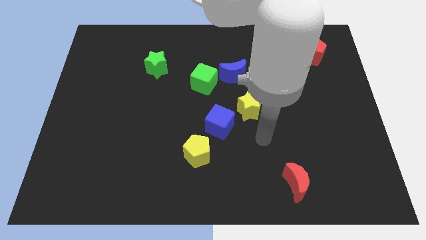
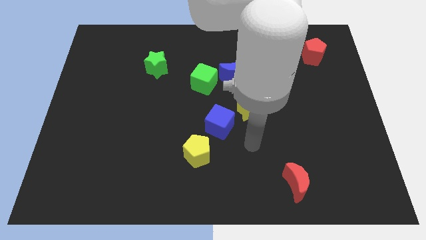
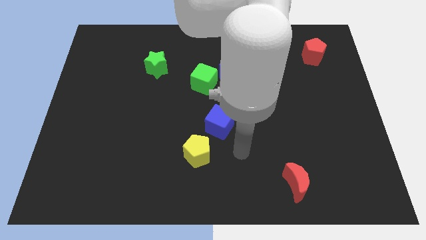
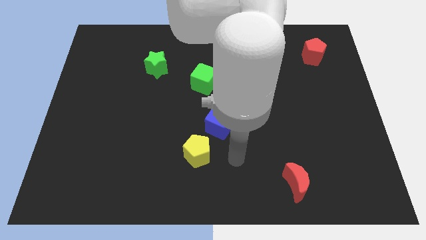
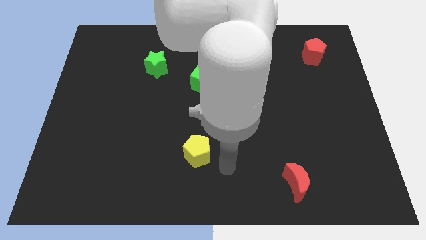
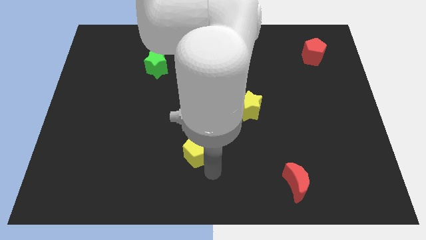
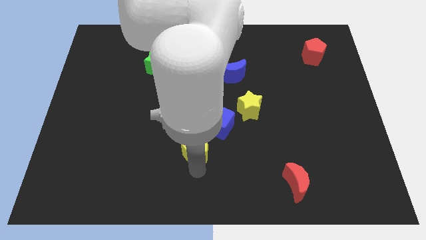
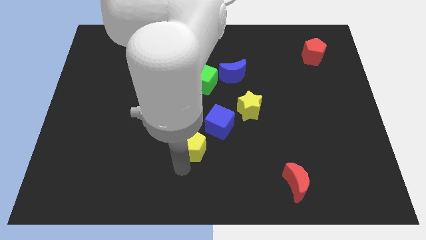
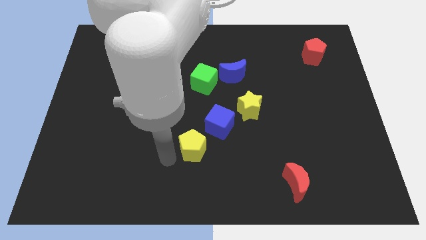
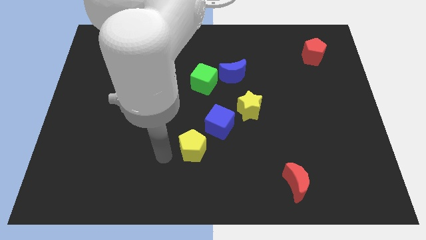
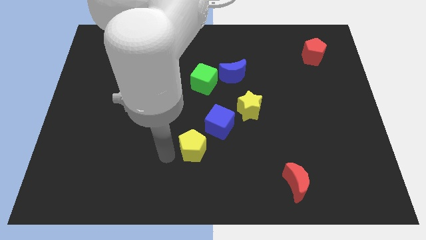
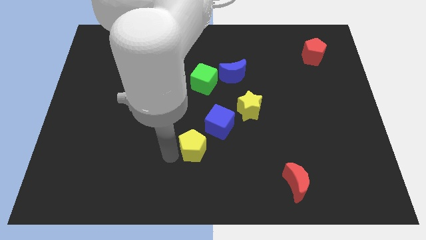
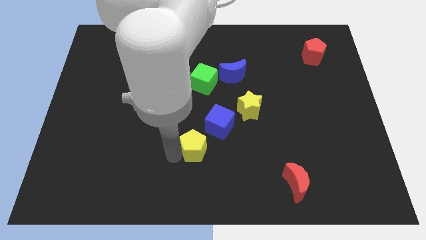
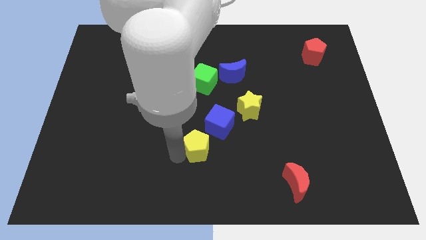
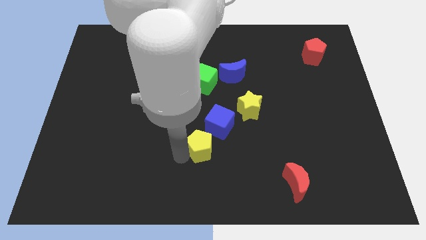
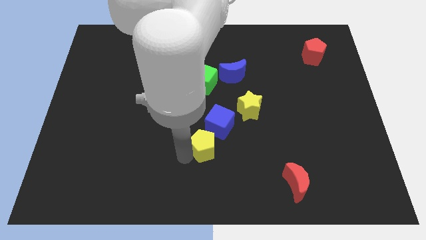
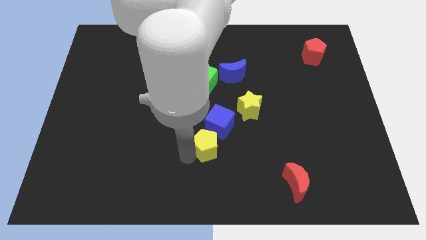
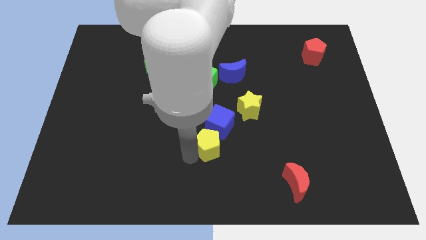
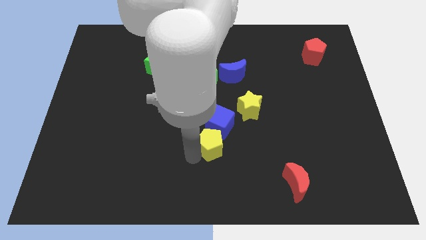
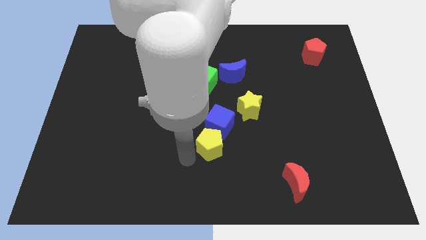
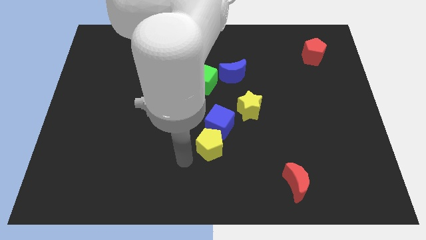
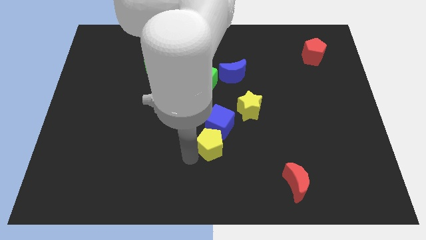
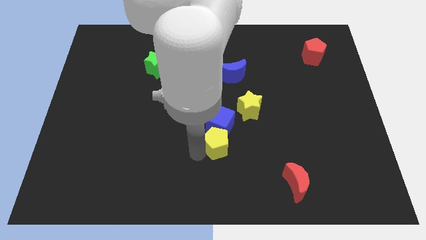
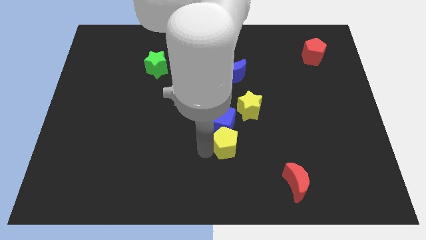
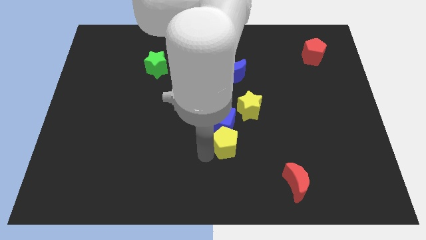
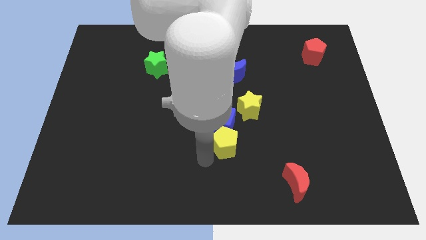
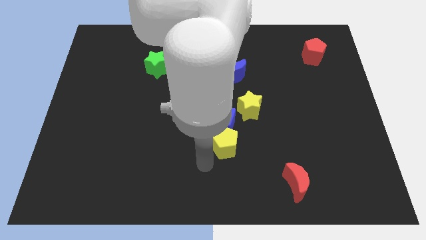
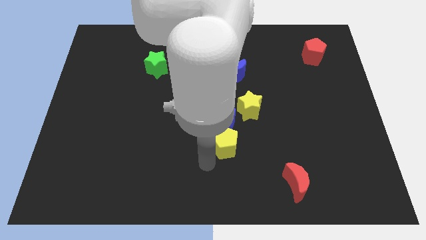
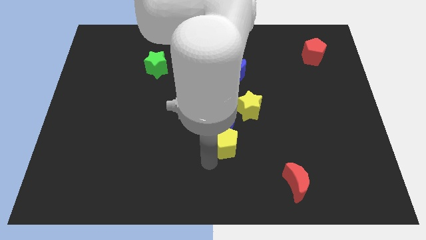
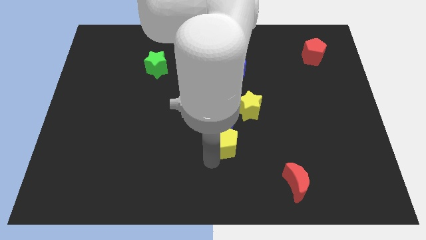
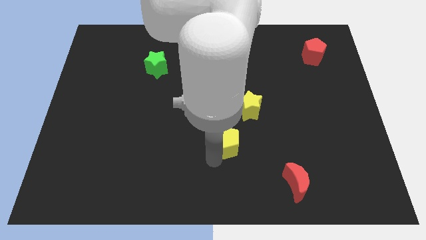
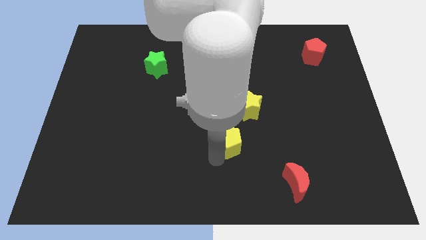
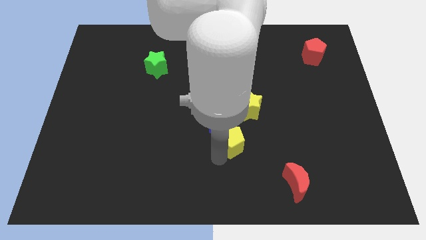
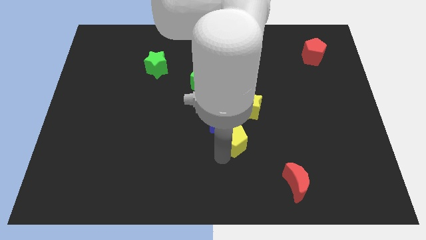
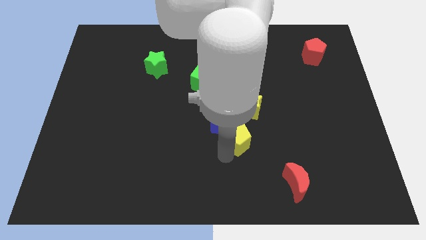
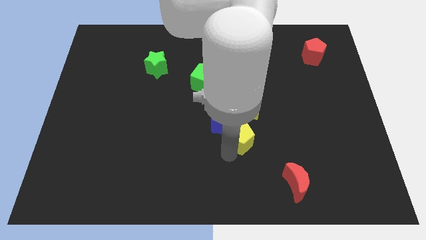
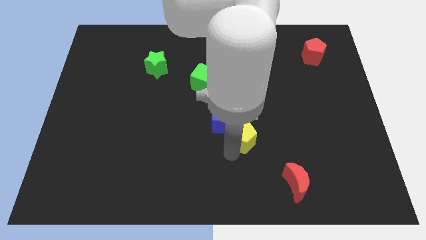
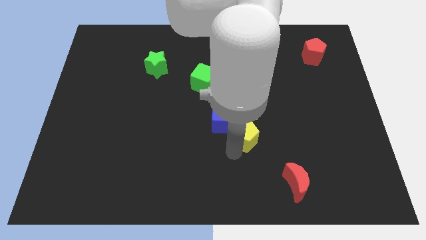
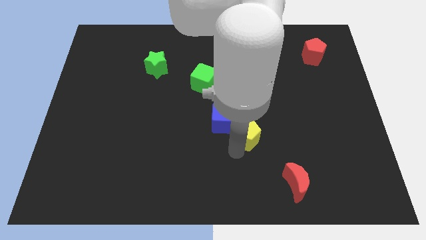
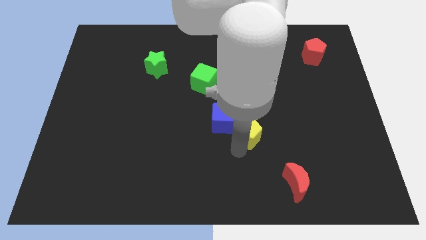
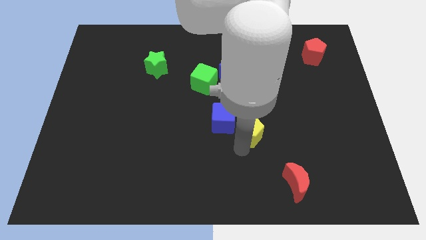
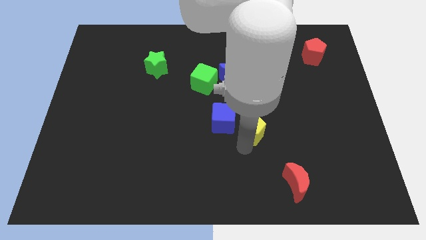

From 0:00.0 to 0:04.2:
put the yellow pentagon towards the yellow star

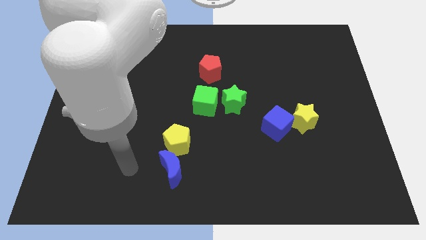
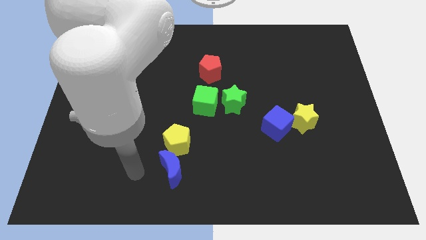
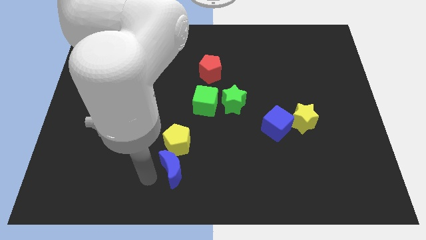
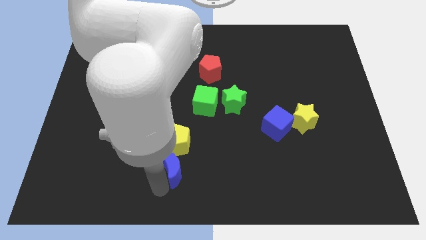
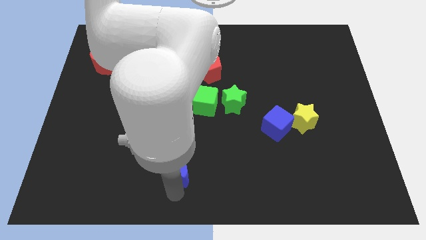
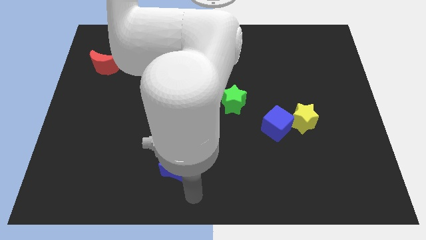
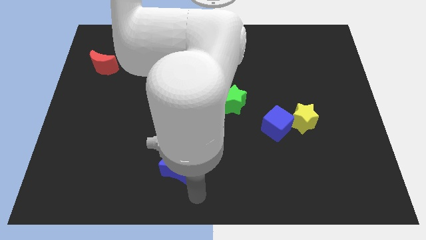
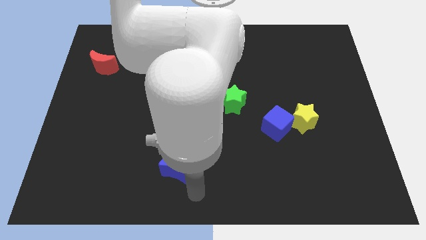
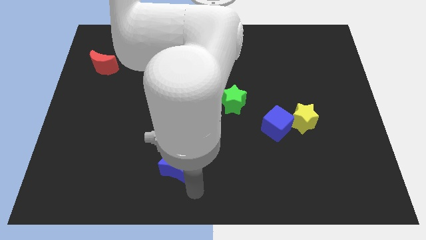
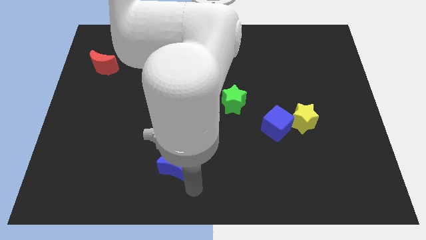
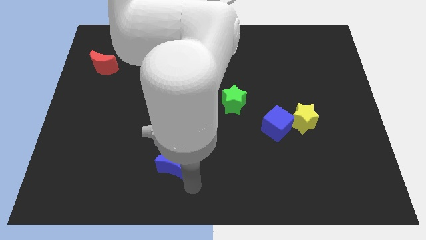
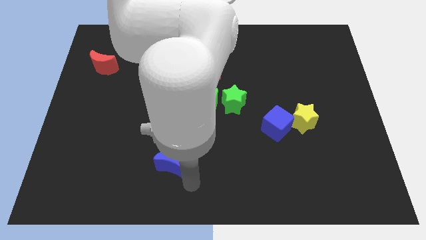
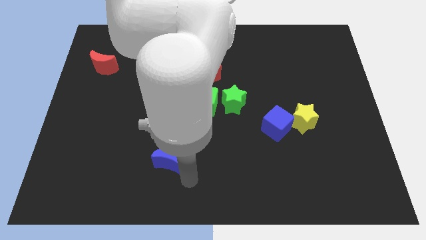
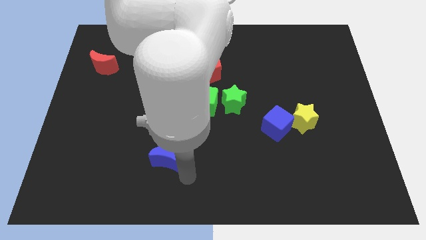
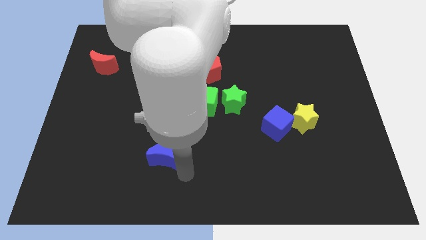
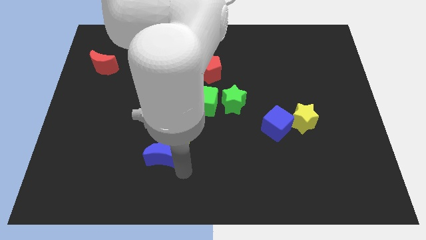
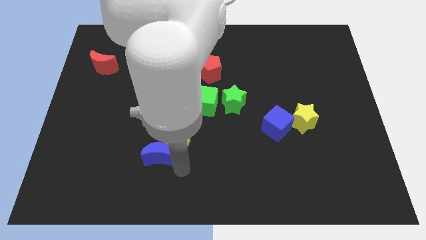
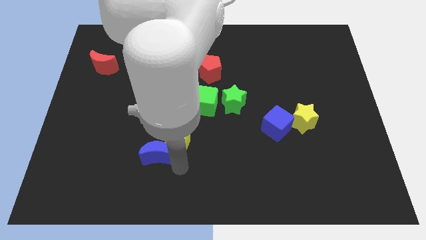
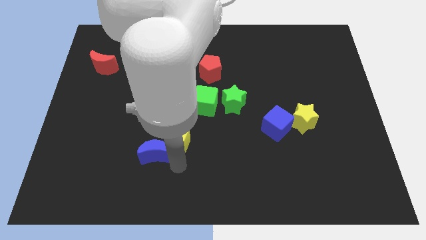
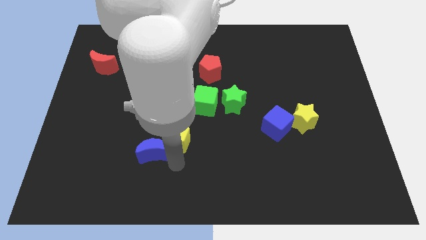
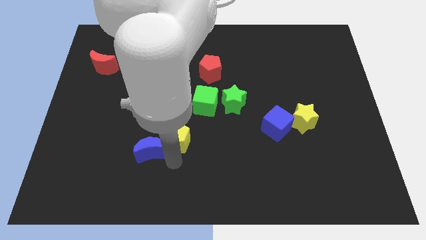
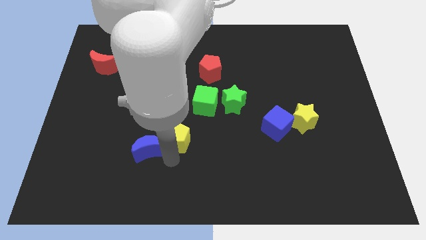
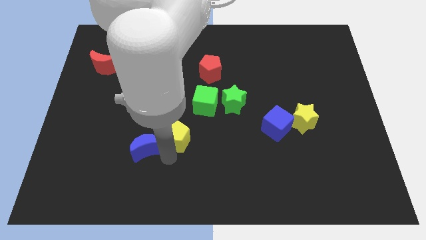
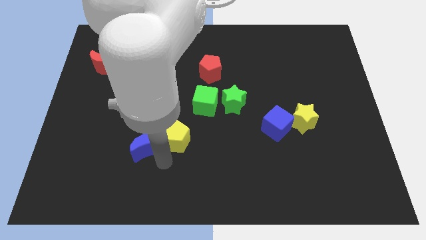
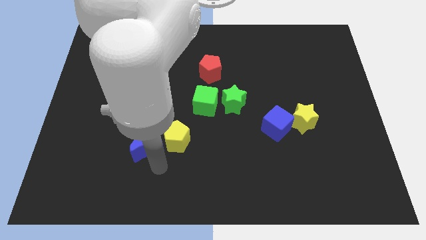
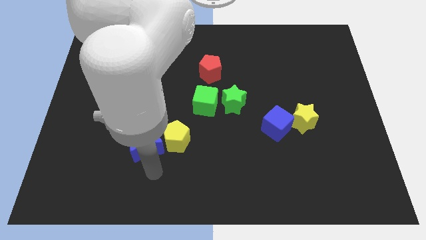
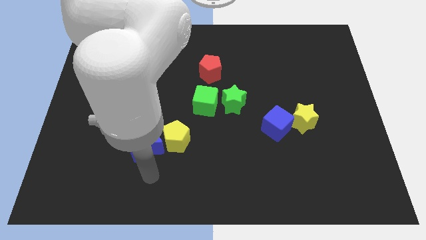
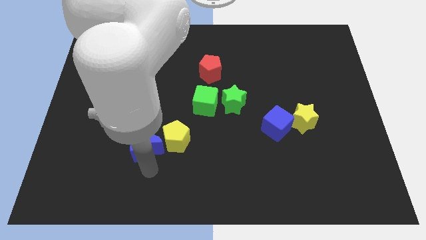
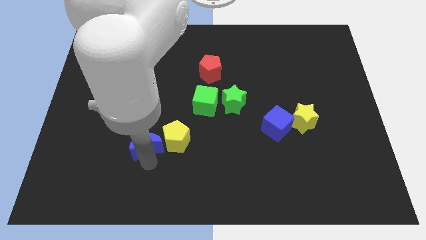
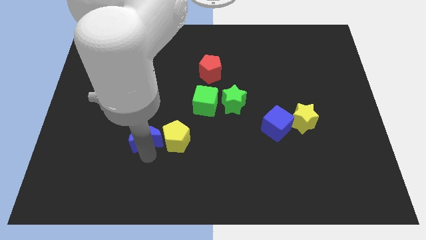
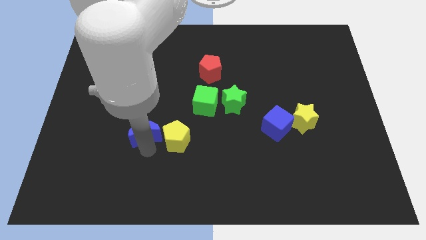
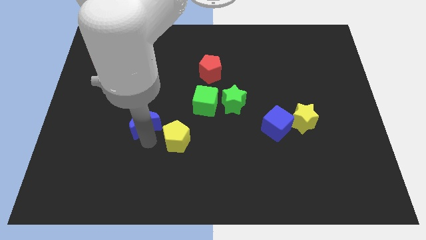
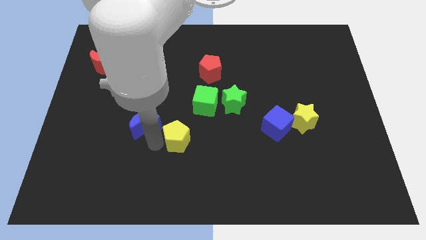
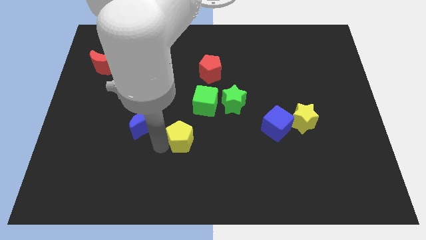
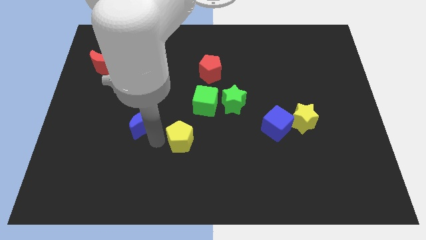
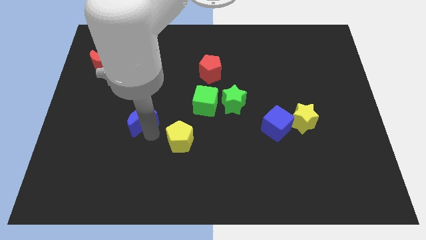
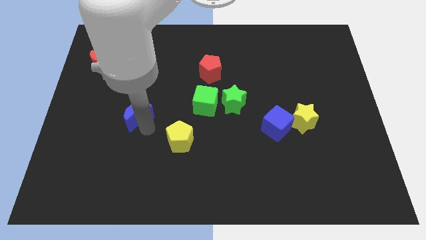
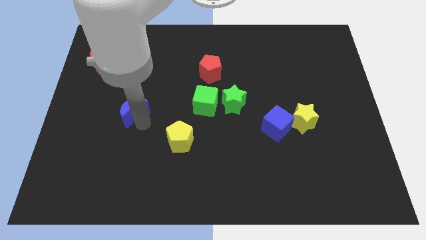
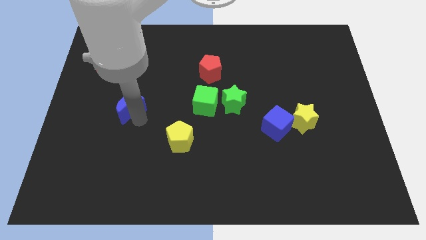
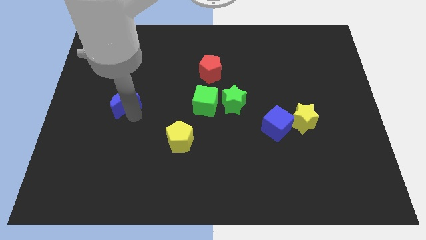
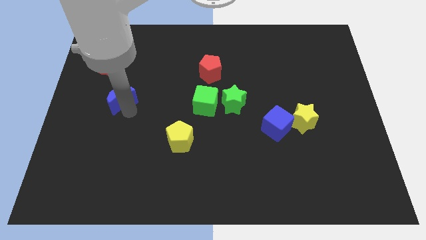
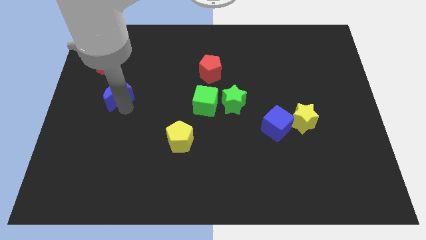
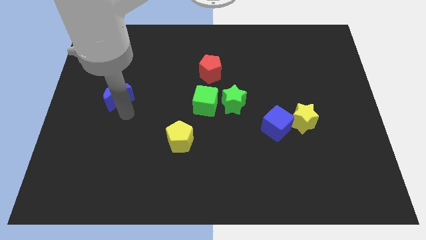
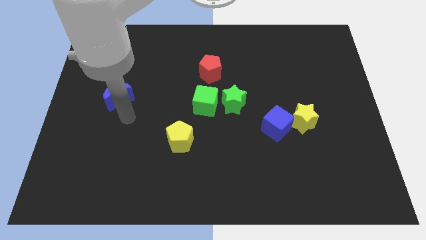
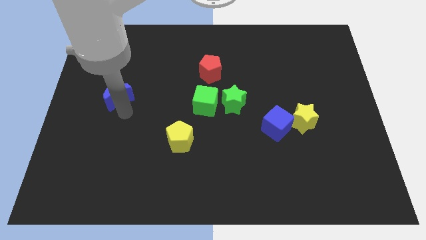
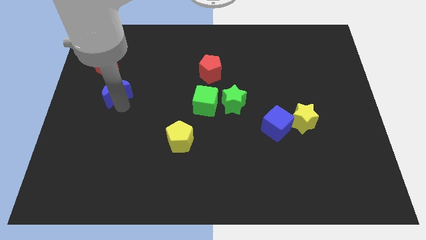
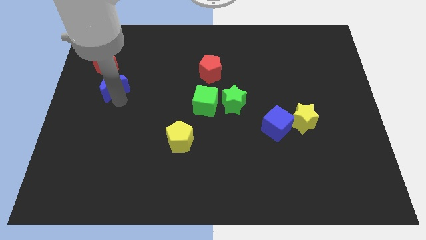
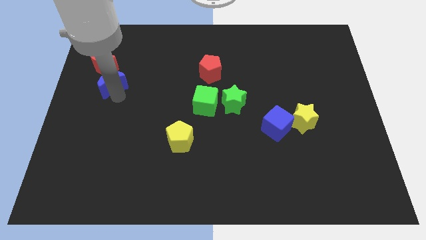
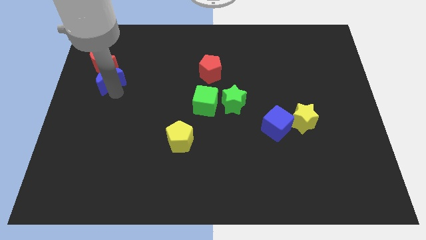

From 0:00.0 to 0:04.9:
move the blue moon close to the red moon
